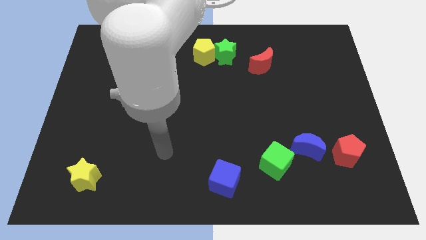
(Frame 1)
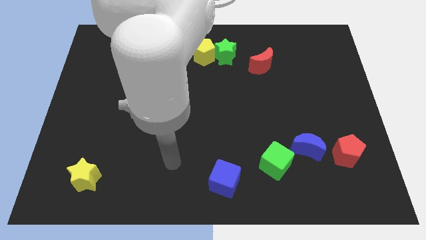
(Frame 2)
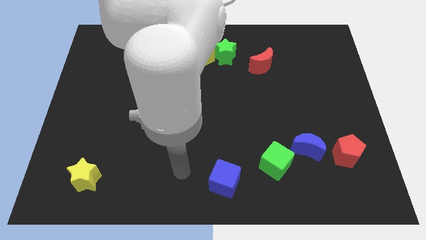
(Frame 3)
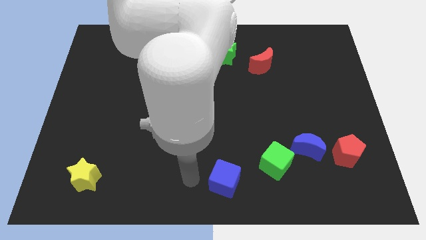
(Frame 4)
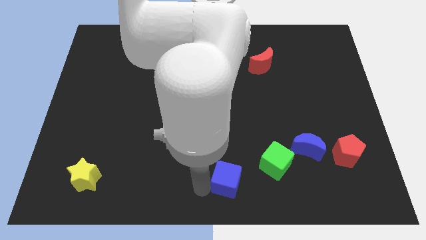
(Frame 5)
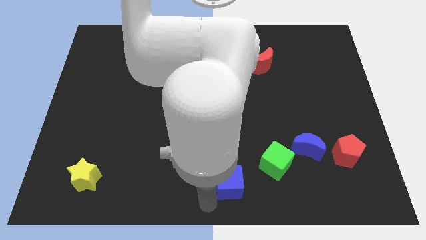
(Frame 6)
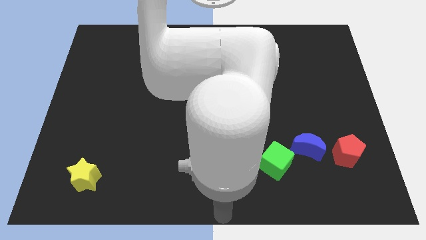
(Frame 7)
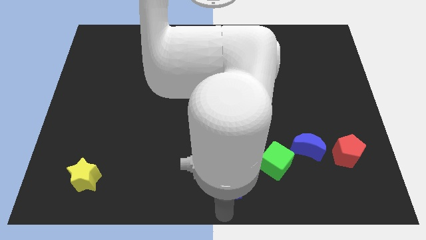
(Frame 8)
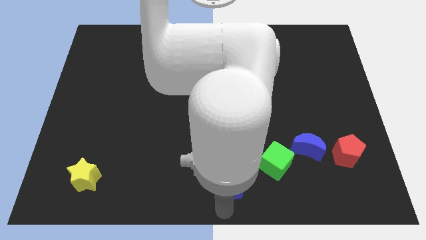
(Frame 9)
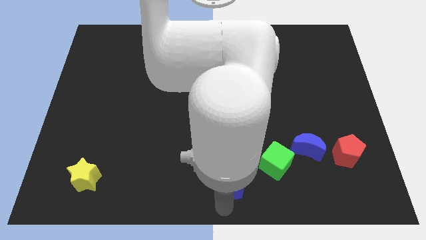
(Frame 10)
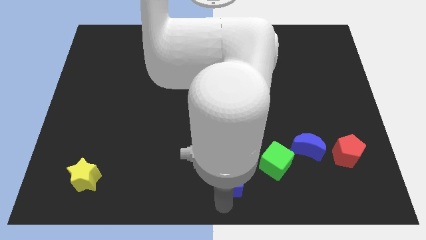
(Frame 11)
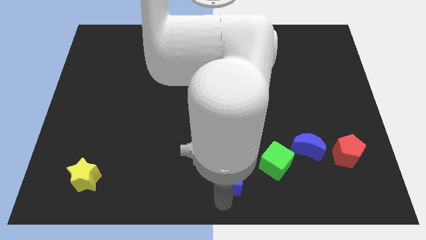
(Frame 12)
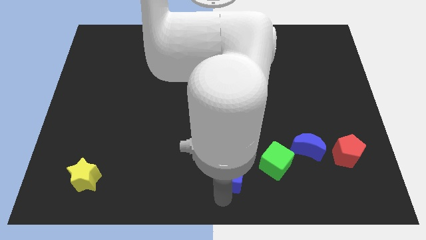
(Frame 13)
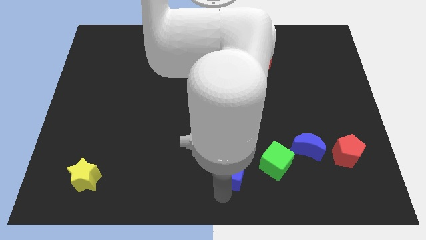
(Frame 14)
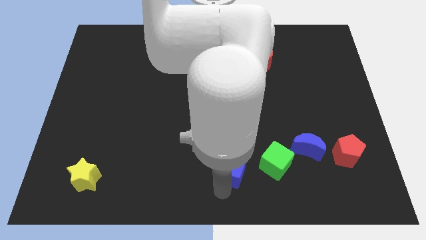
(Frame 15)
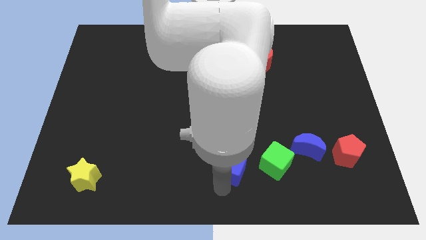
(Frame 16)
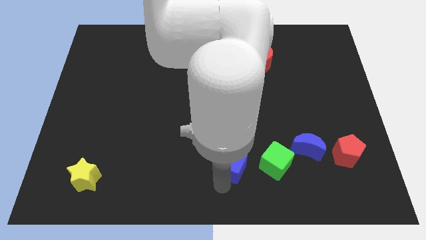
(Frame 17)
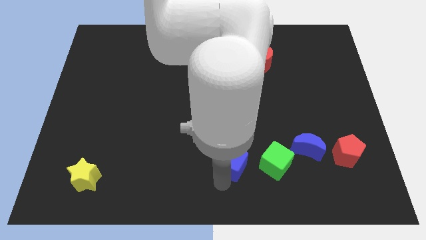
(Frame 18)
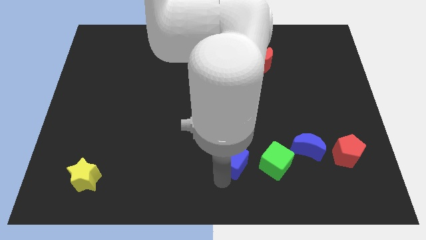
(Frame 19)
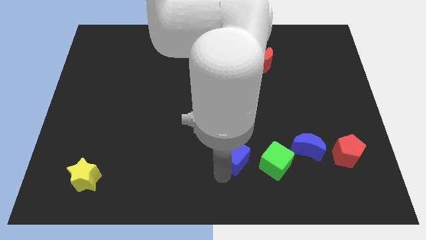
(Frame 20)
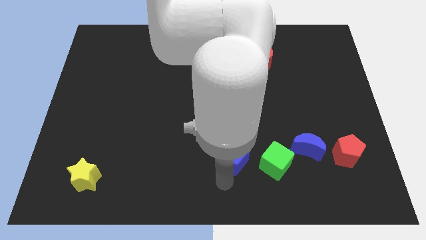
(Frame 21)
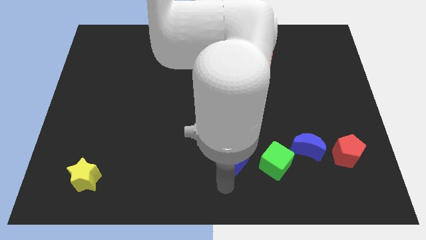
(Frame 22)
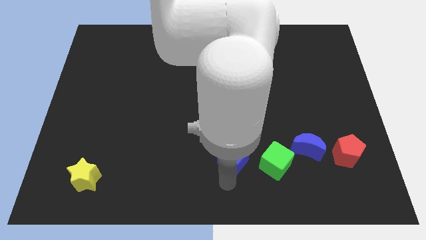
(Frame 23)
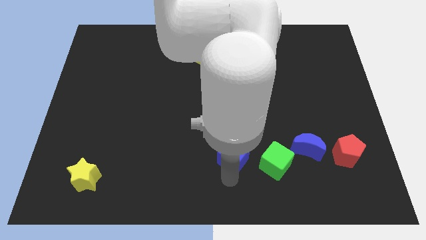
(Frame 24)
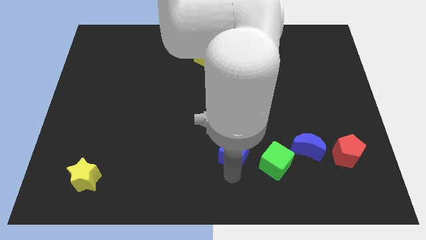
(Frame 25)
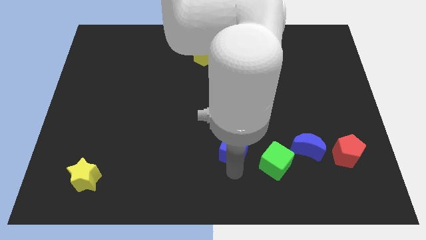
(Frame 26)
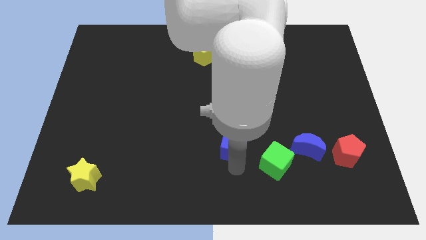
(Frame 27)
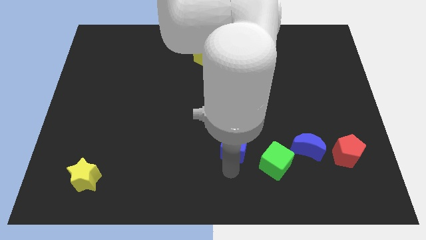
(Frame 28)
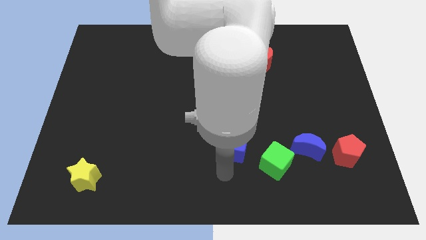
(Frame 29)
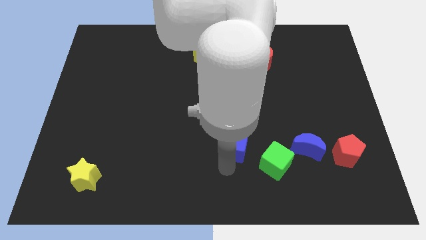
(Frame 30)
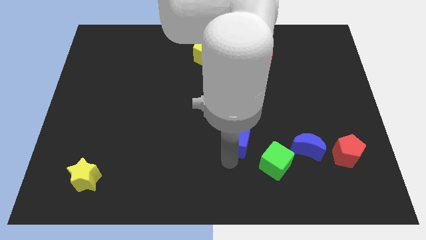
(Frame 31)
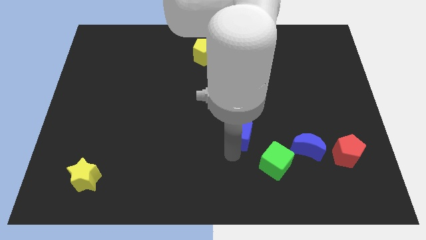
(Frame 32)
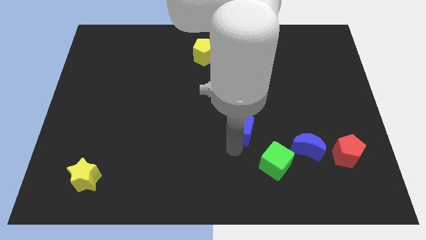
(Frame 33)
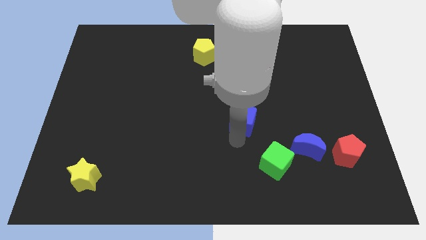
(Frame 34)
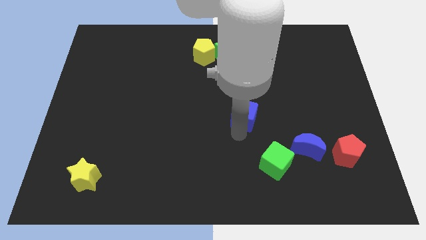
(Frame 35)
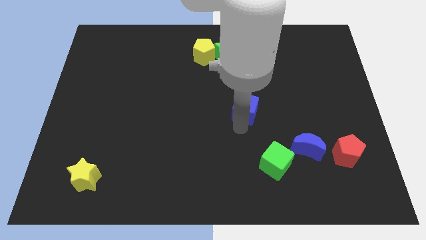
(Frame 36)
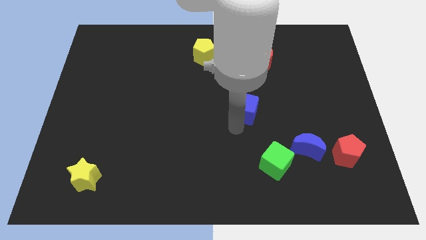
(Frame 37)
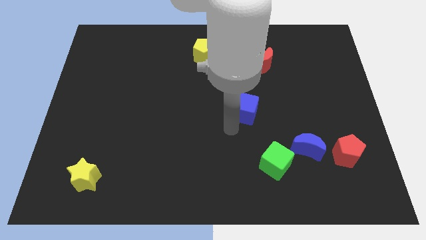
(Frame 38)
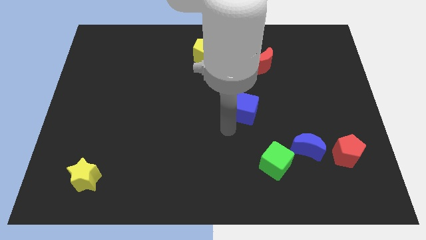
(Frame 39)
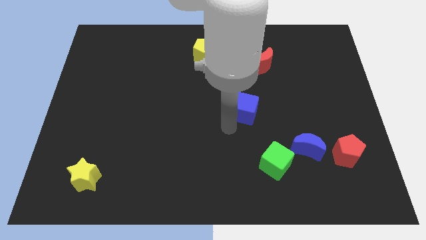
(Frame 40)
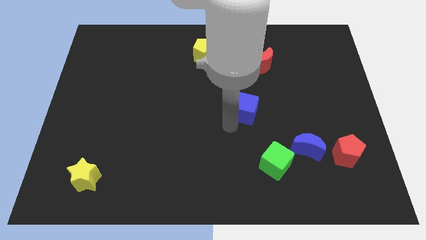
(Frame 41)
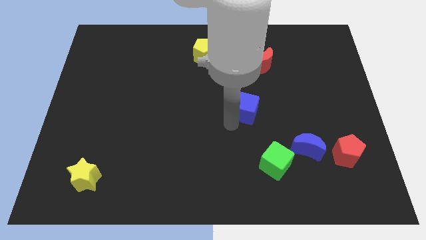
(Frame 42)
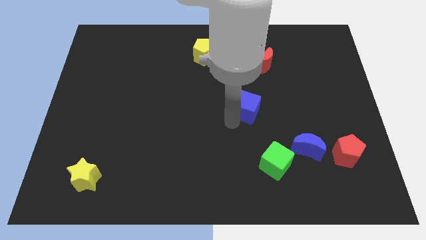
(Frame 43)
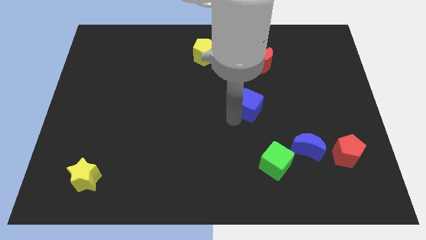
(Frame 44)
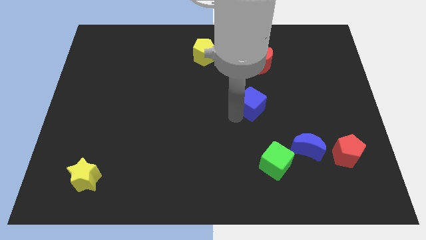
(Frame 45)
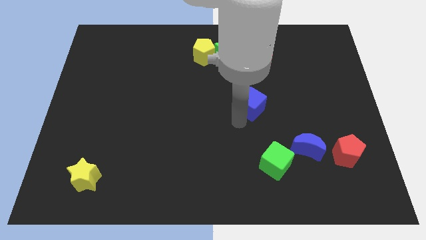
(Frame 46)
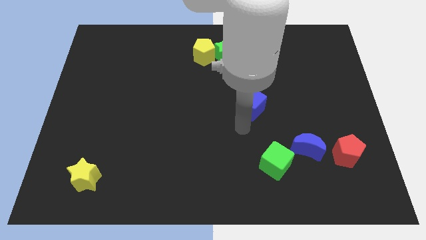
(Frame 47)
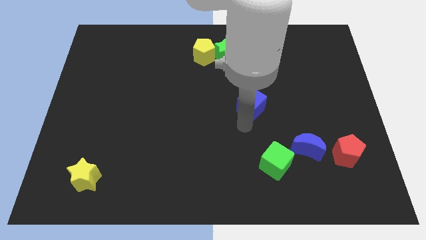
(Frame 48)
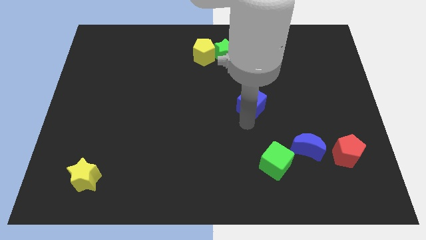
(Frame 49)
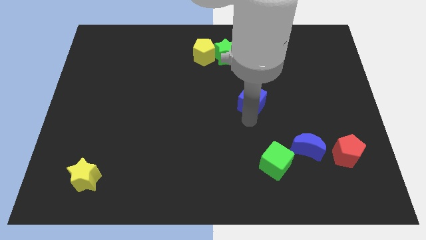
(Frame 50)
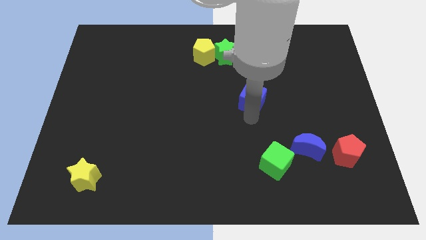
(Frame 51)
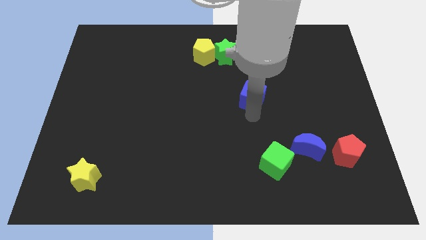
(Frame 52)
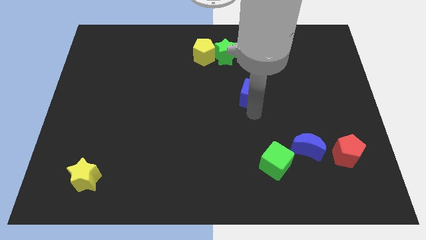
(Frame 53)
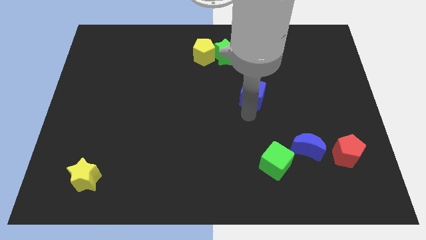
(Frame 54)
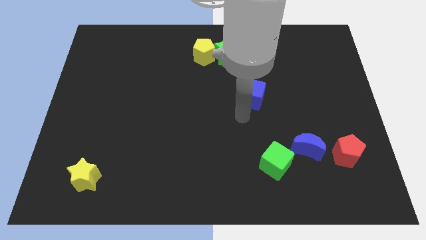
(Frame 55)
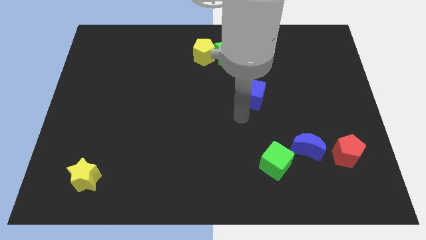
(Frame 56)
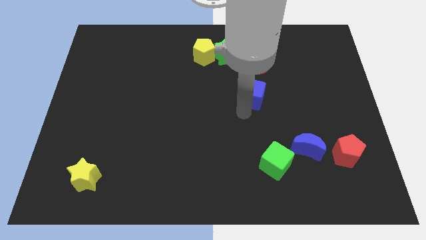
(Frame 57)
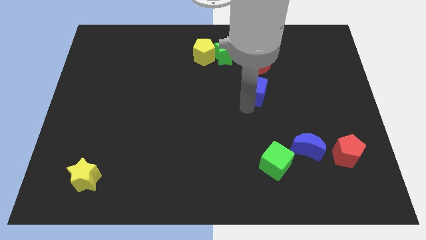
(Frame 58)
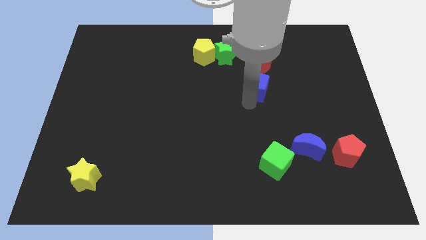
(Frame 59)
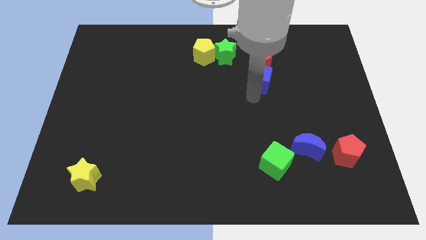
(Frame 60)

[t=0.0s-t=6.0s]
move the blue cube towards the red moon
